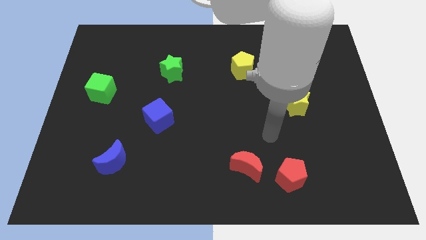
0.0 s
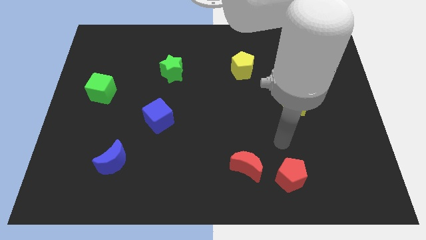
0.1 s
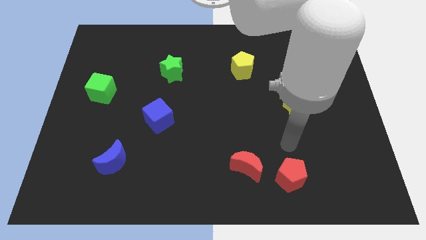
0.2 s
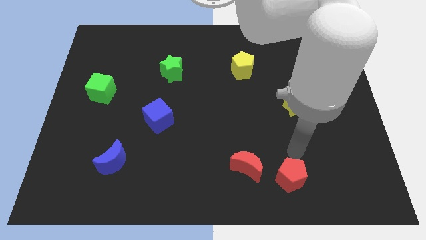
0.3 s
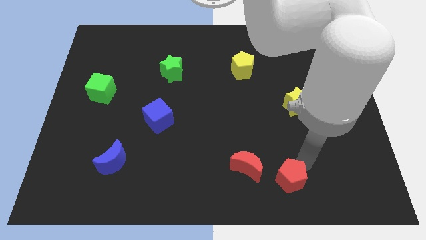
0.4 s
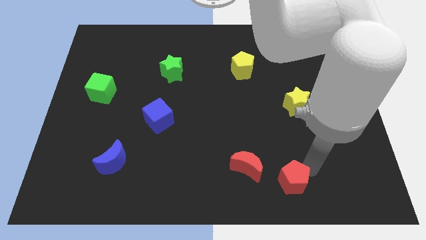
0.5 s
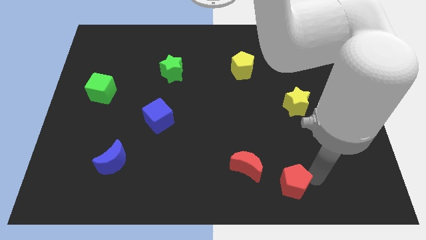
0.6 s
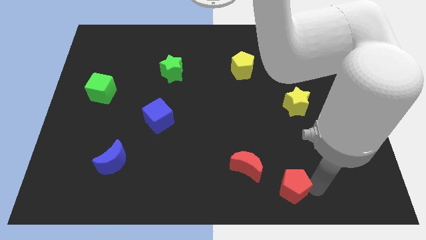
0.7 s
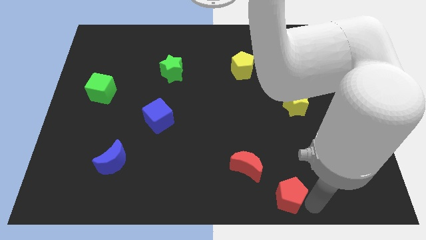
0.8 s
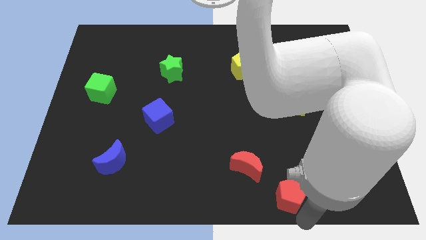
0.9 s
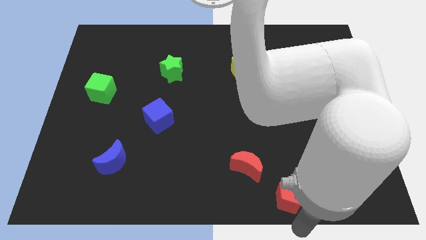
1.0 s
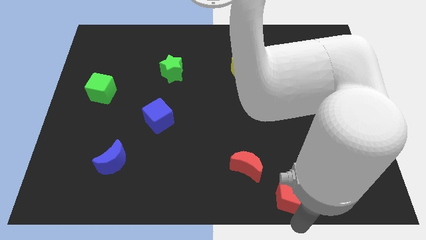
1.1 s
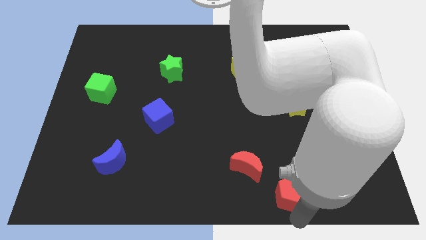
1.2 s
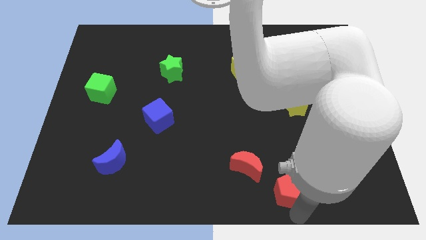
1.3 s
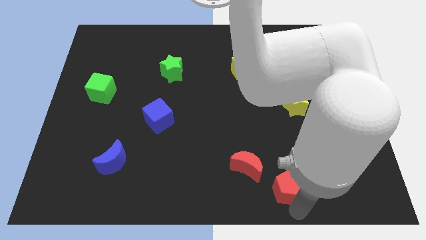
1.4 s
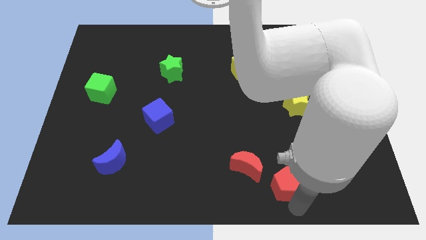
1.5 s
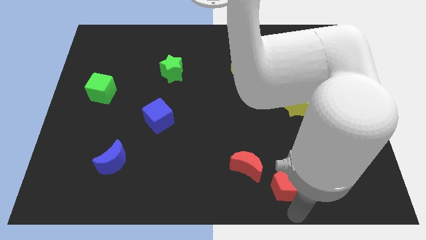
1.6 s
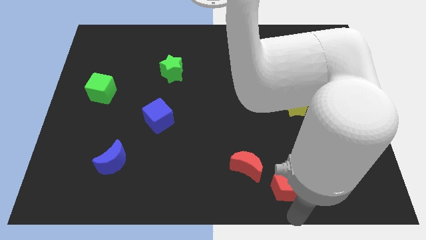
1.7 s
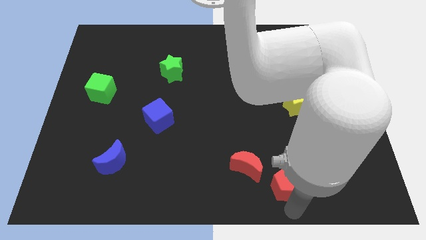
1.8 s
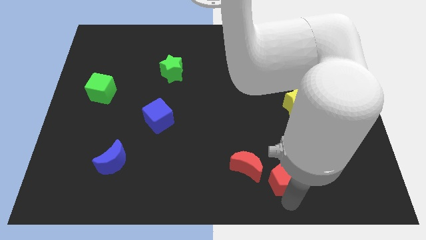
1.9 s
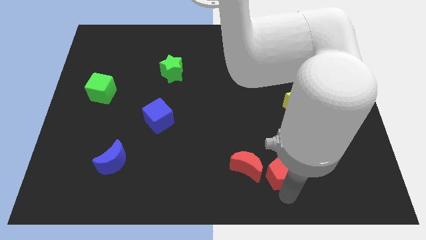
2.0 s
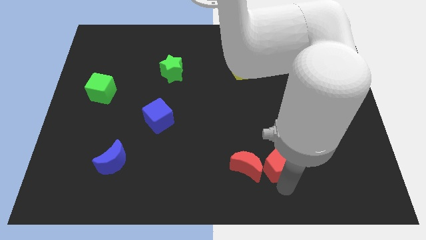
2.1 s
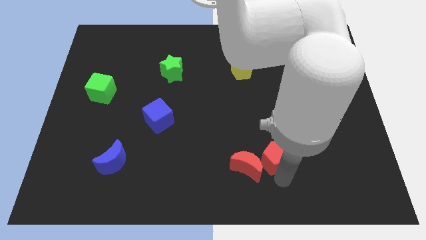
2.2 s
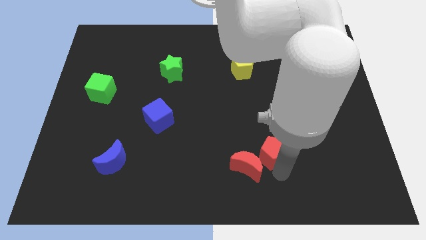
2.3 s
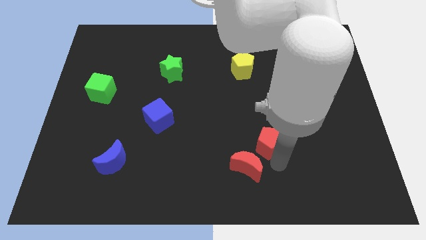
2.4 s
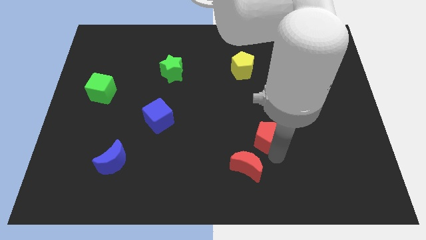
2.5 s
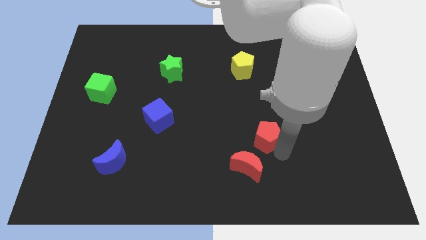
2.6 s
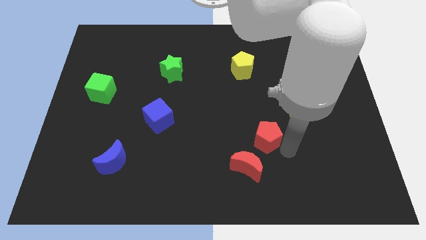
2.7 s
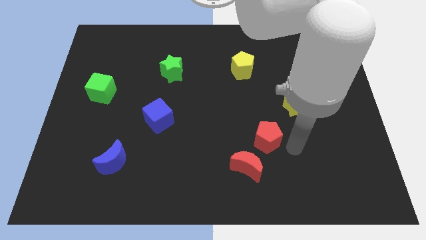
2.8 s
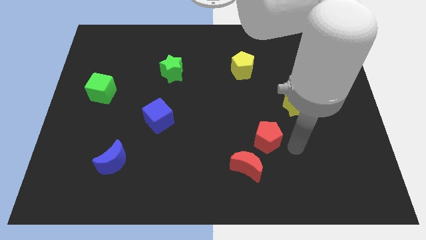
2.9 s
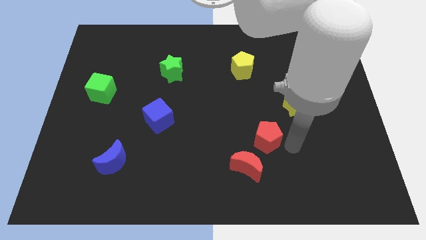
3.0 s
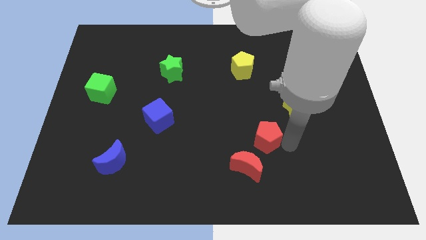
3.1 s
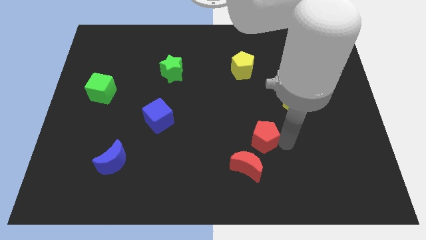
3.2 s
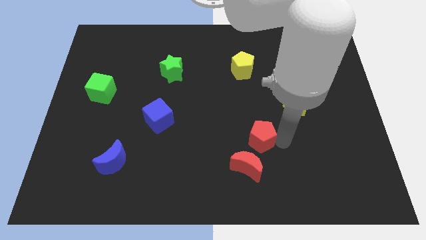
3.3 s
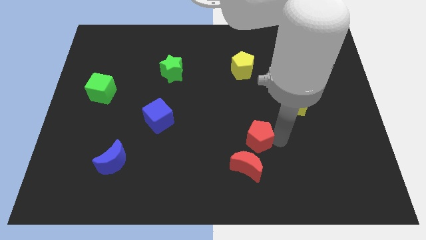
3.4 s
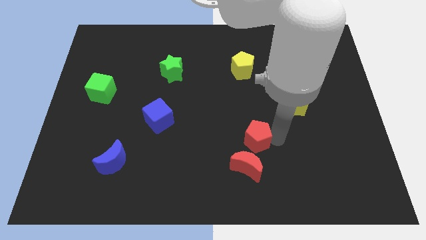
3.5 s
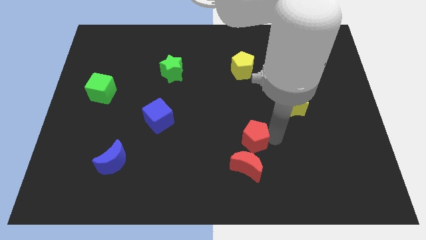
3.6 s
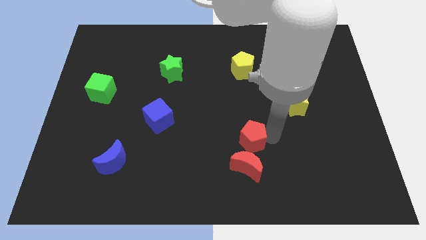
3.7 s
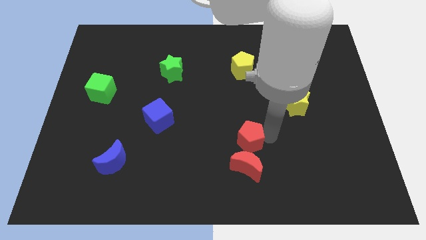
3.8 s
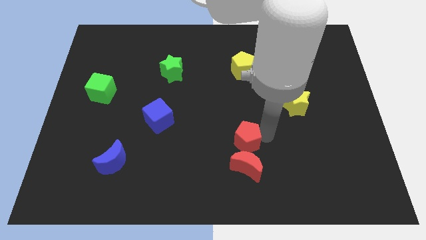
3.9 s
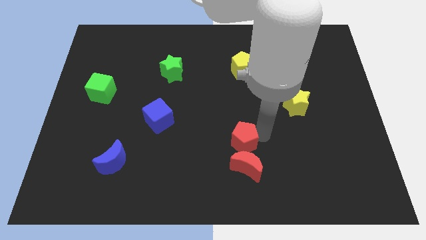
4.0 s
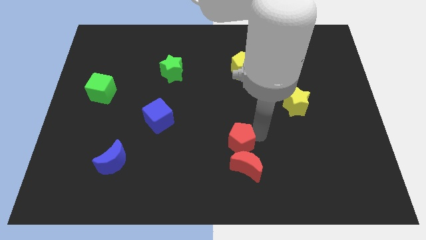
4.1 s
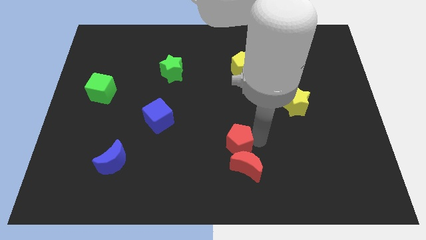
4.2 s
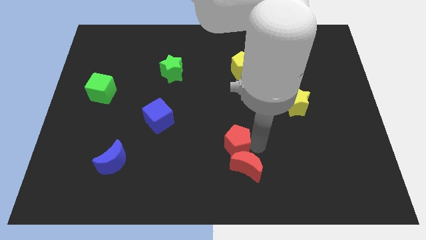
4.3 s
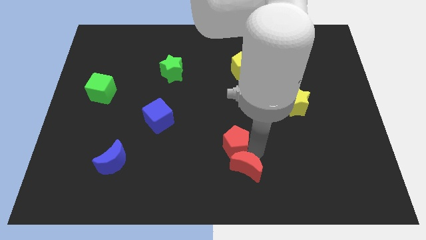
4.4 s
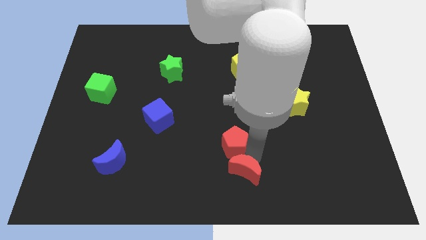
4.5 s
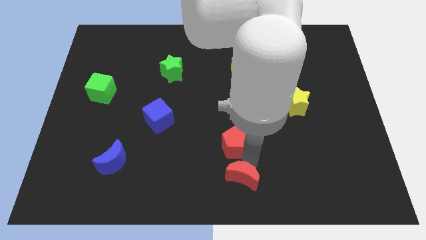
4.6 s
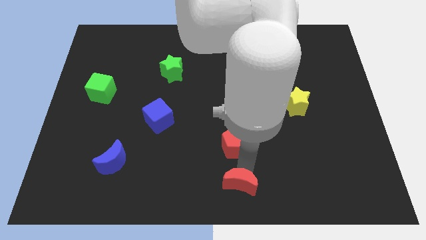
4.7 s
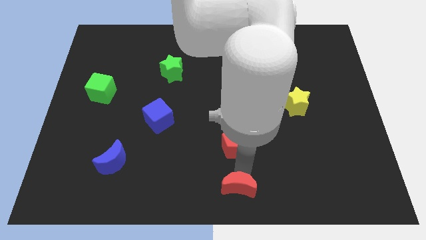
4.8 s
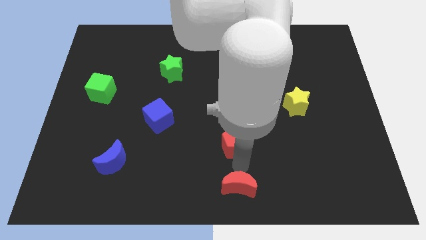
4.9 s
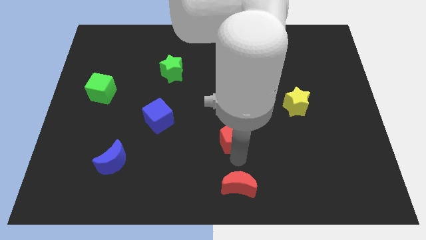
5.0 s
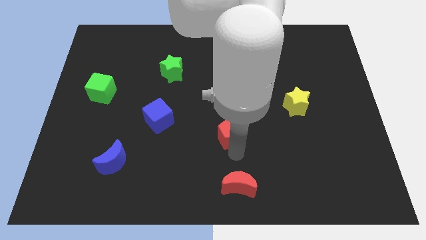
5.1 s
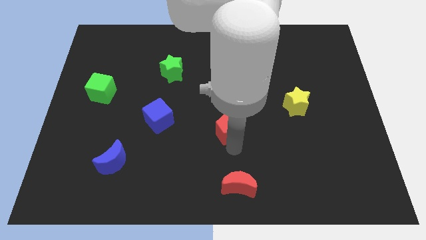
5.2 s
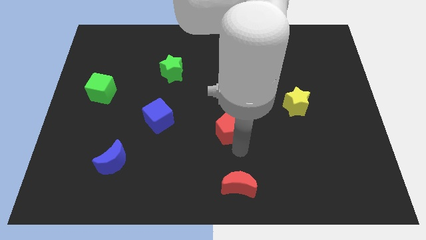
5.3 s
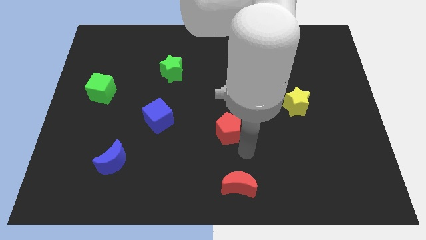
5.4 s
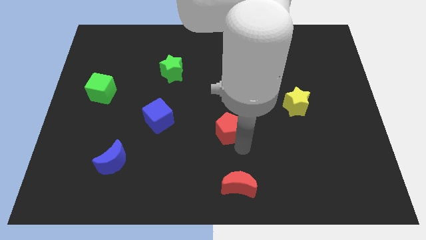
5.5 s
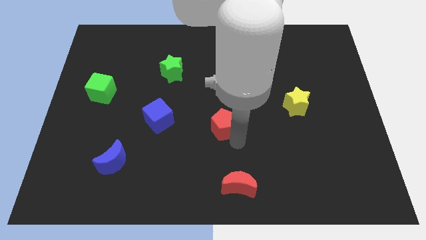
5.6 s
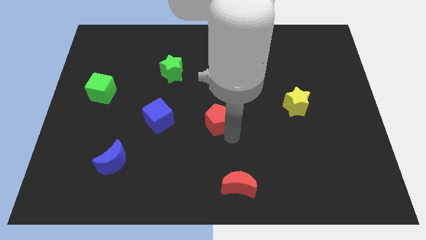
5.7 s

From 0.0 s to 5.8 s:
push the red pentagon upwards and to the left diagonally

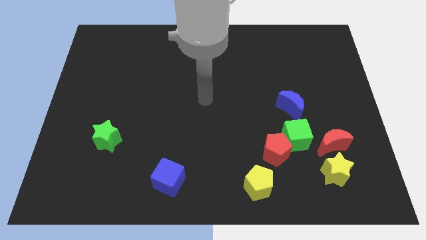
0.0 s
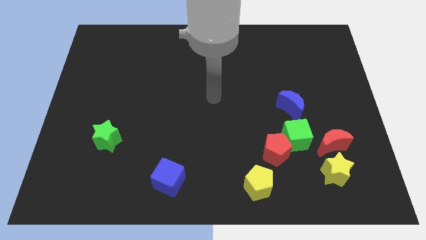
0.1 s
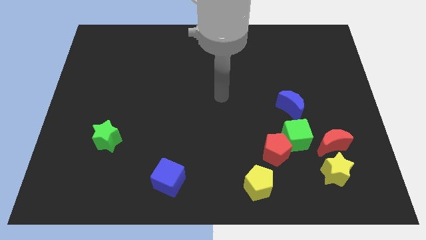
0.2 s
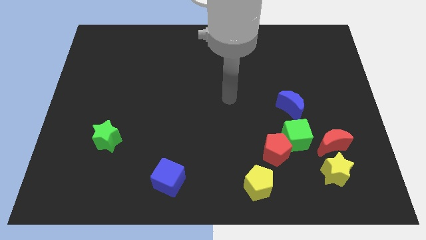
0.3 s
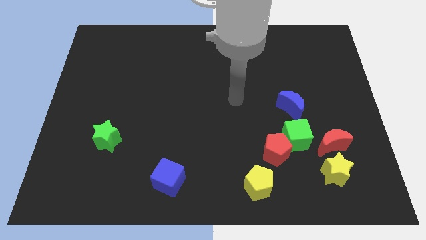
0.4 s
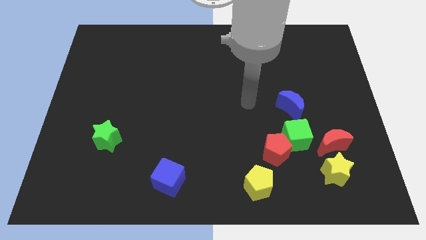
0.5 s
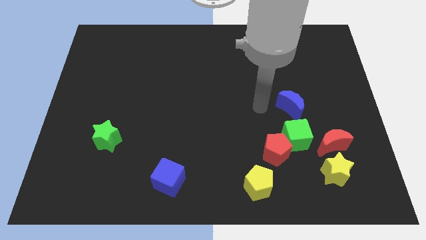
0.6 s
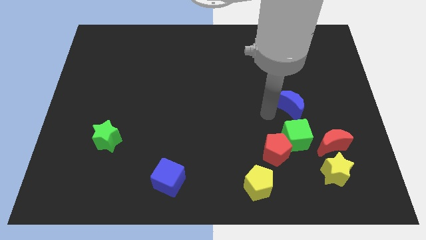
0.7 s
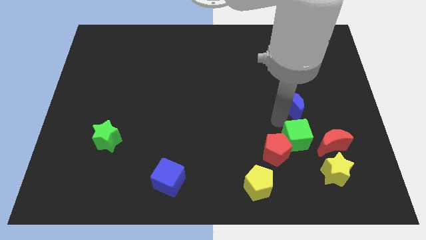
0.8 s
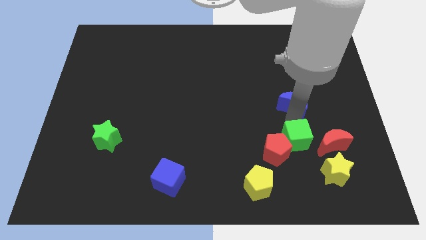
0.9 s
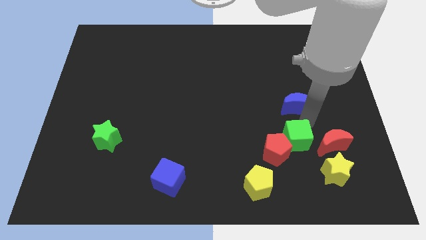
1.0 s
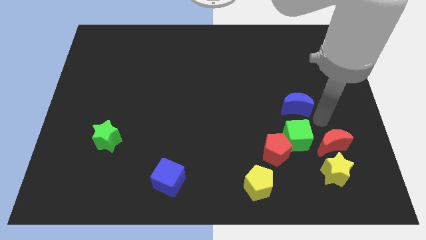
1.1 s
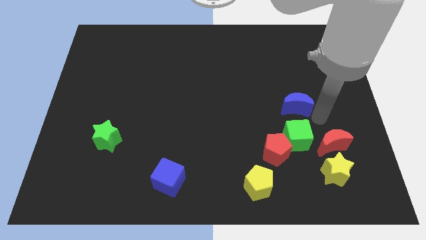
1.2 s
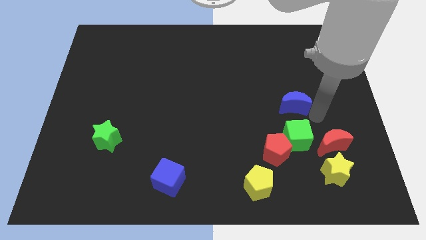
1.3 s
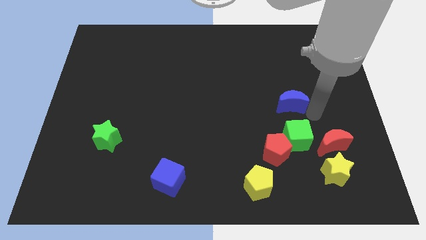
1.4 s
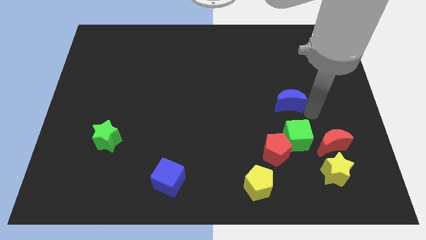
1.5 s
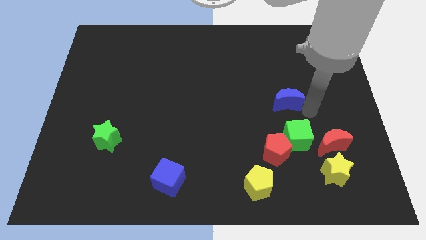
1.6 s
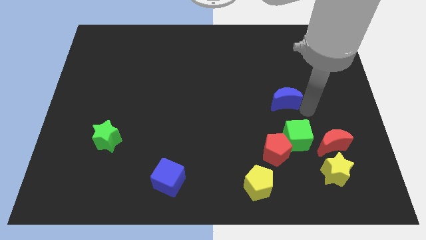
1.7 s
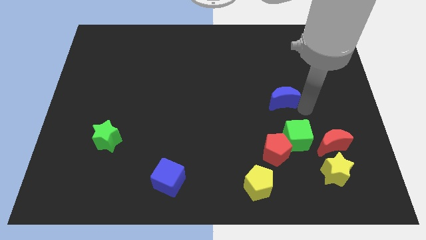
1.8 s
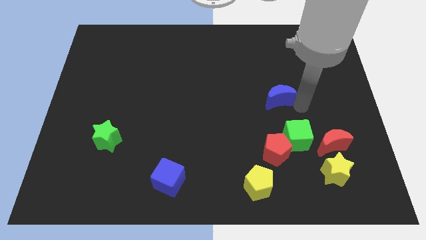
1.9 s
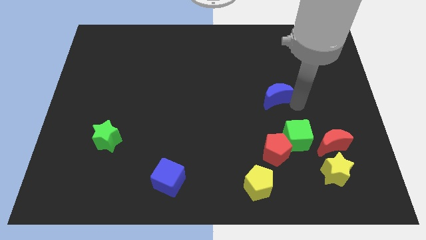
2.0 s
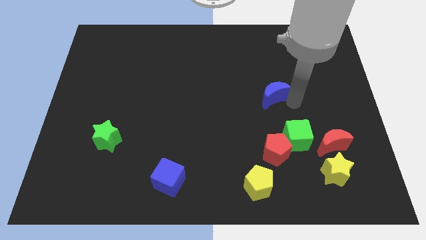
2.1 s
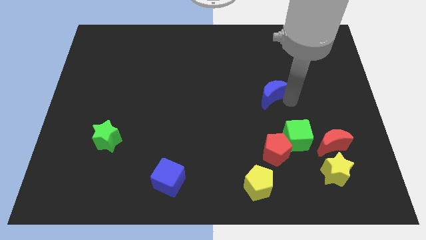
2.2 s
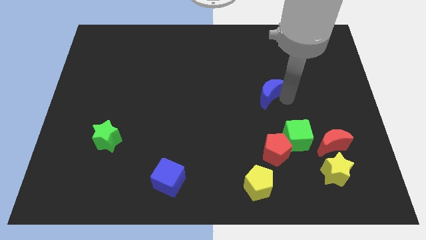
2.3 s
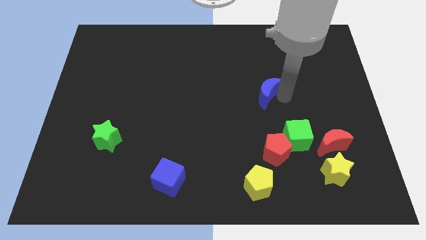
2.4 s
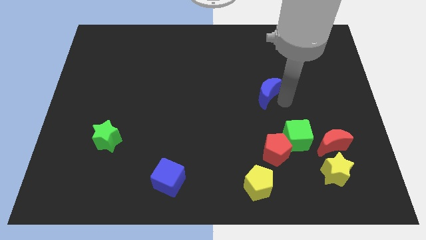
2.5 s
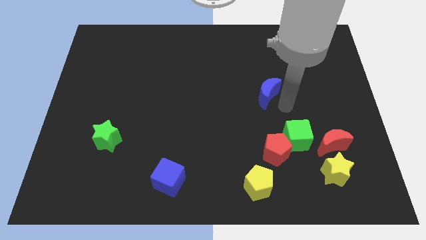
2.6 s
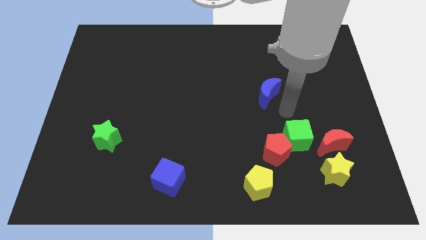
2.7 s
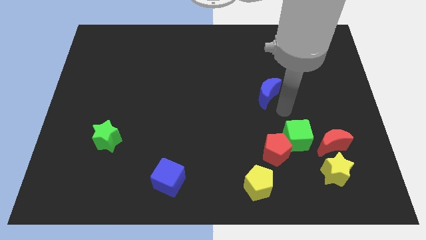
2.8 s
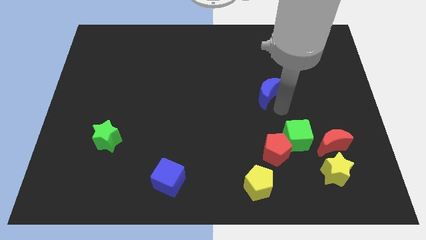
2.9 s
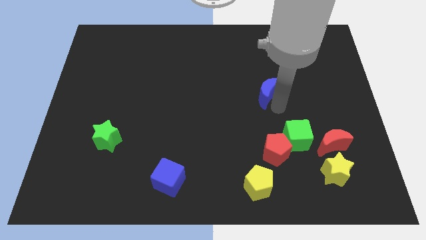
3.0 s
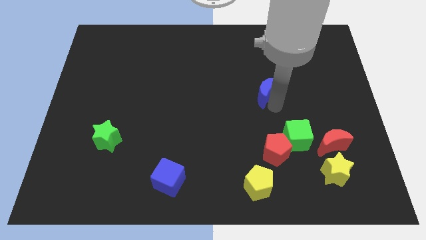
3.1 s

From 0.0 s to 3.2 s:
slide the blue moon up and left diagonally a little bit
